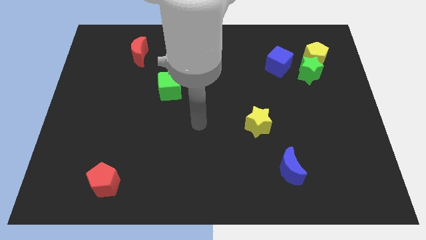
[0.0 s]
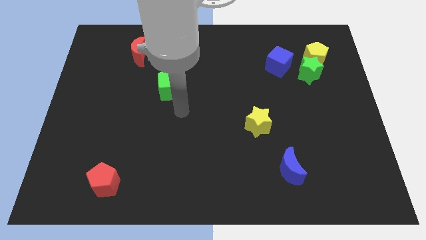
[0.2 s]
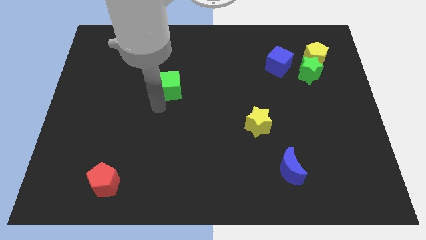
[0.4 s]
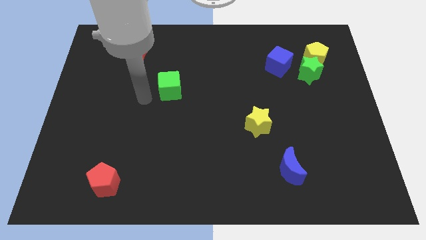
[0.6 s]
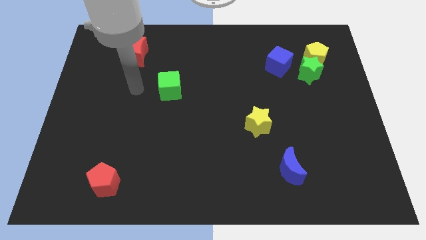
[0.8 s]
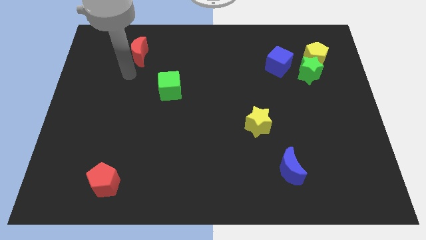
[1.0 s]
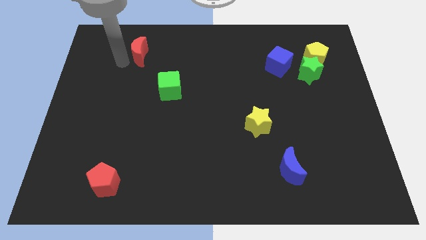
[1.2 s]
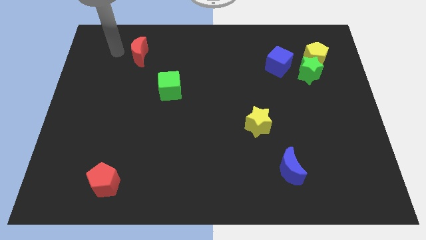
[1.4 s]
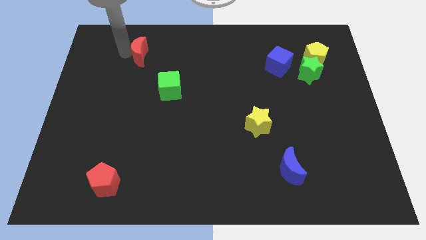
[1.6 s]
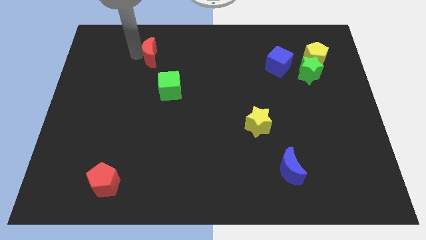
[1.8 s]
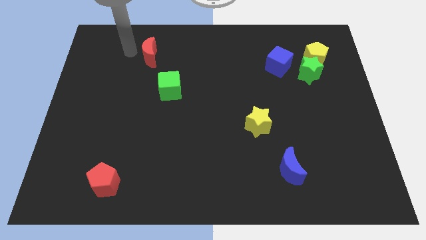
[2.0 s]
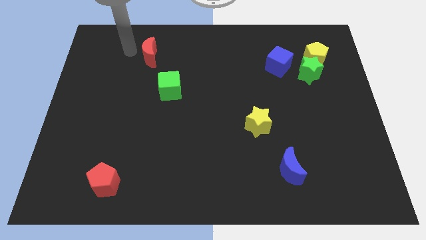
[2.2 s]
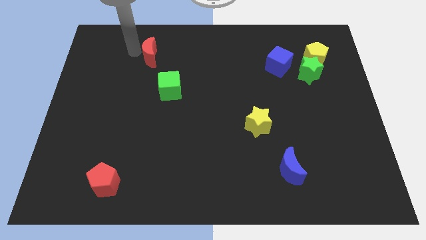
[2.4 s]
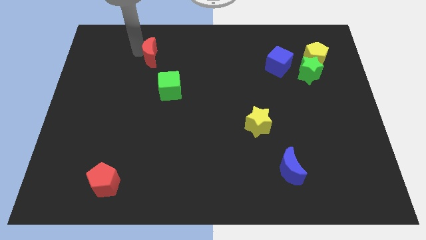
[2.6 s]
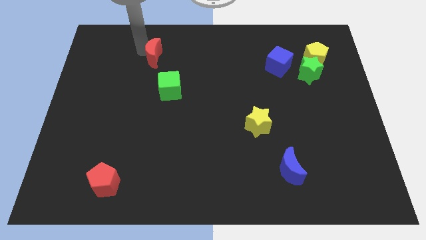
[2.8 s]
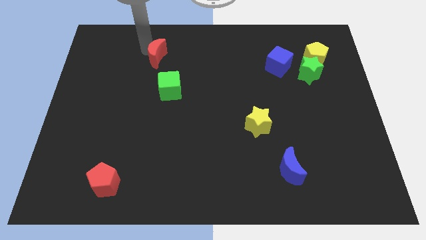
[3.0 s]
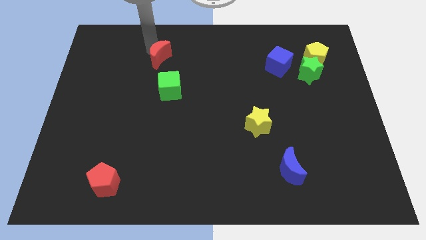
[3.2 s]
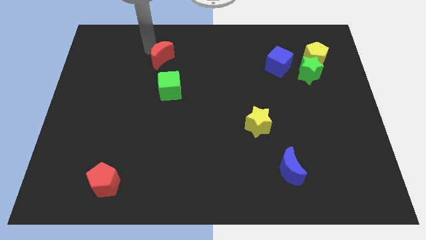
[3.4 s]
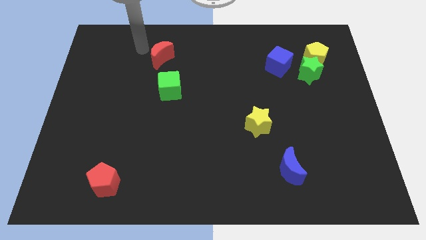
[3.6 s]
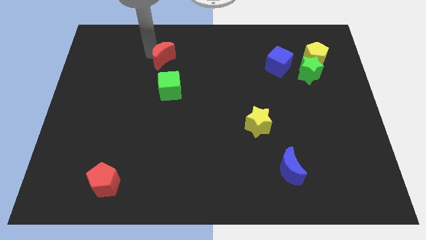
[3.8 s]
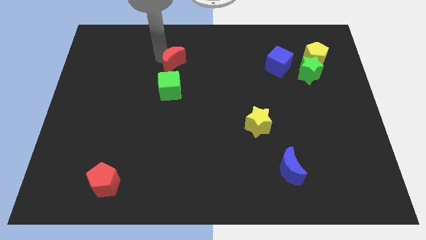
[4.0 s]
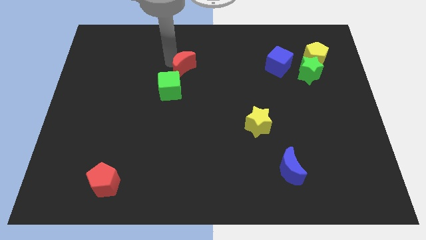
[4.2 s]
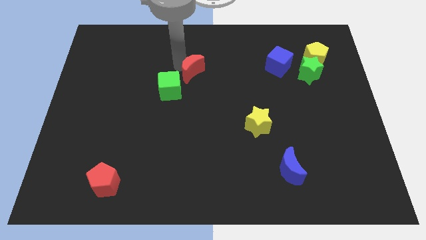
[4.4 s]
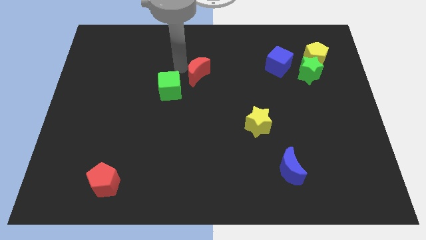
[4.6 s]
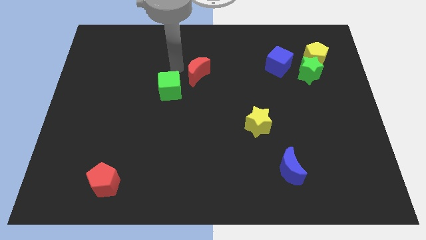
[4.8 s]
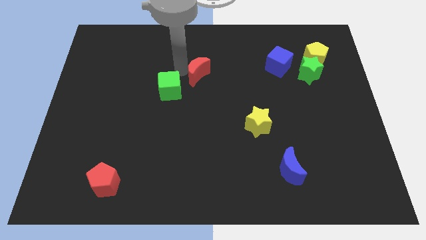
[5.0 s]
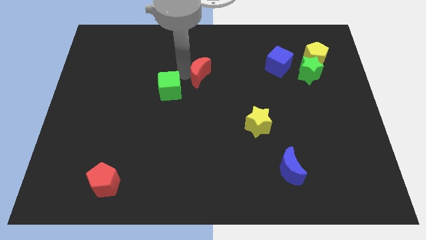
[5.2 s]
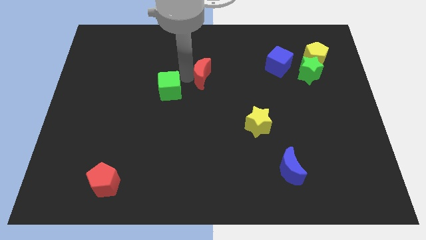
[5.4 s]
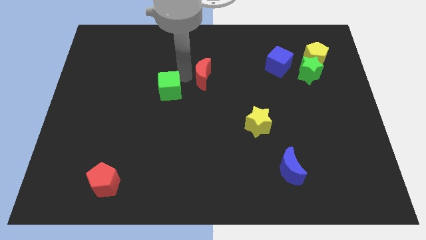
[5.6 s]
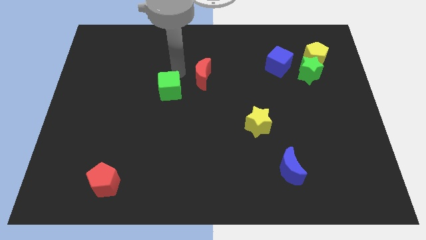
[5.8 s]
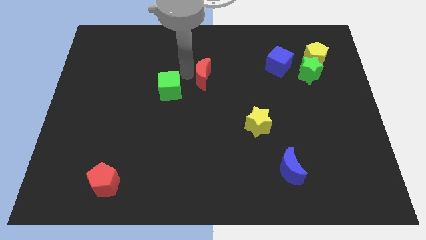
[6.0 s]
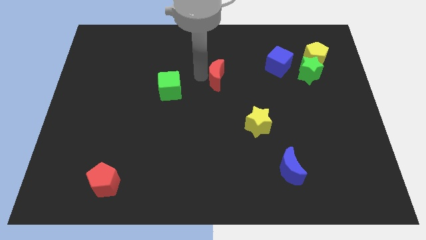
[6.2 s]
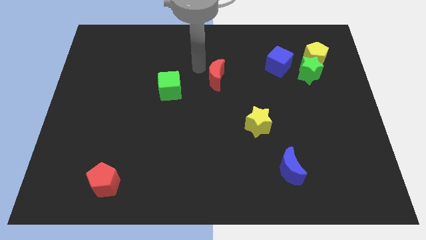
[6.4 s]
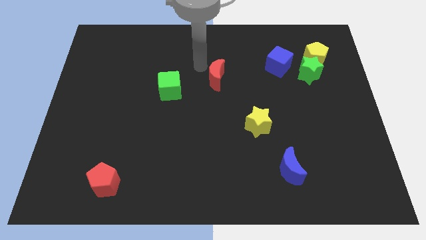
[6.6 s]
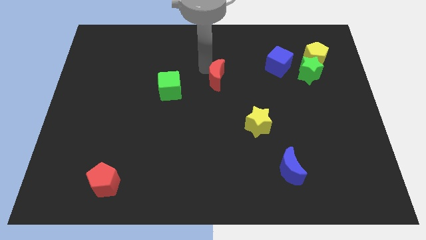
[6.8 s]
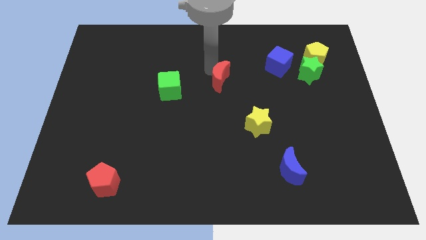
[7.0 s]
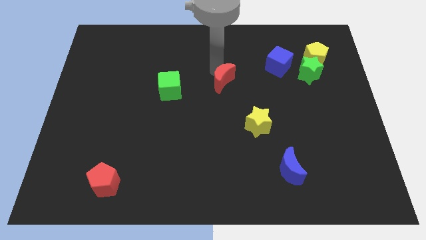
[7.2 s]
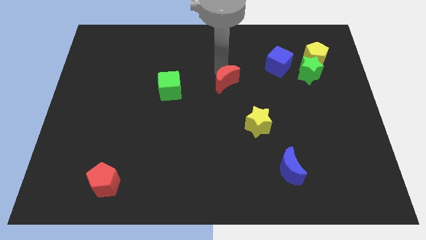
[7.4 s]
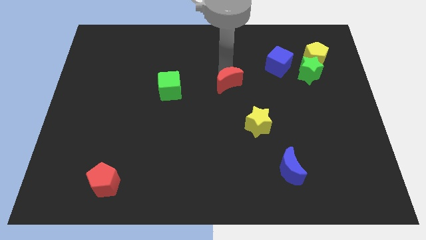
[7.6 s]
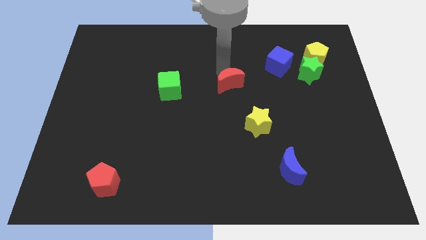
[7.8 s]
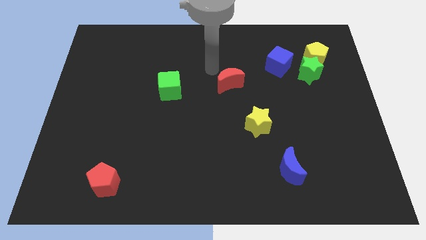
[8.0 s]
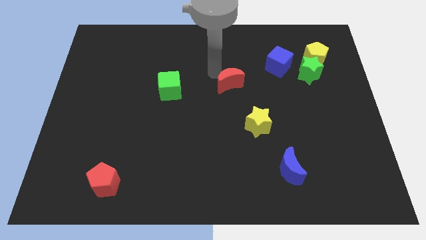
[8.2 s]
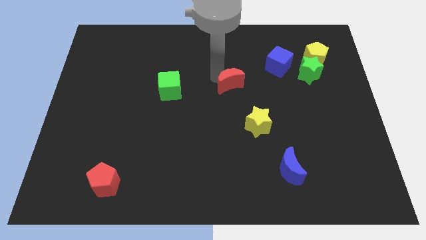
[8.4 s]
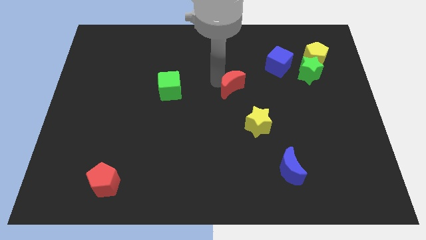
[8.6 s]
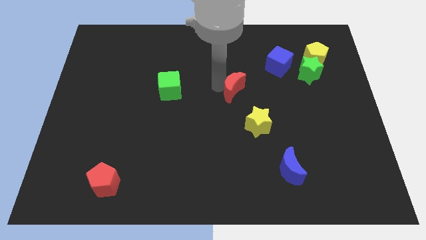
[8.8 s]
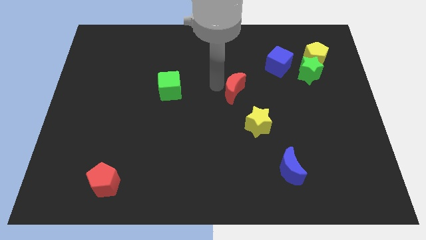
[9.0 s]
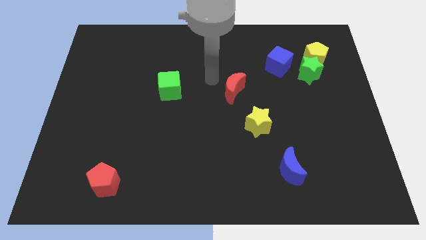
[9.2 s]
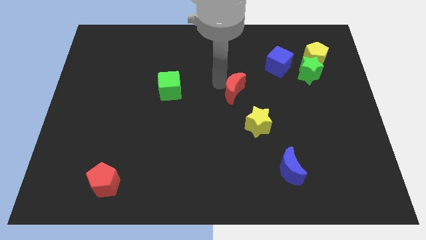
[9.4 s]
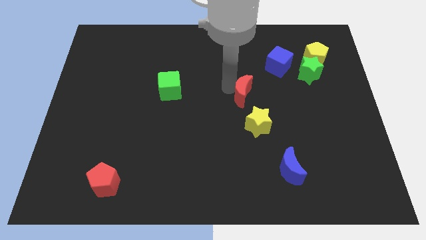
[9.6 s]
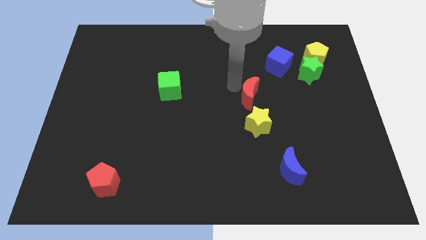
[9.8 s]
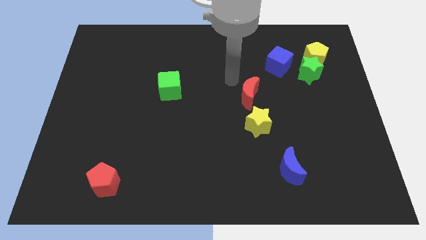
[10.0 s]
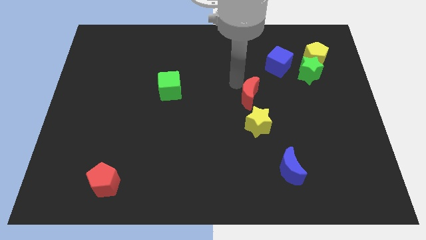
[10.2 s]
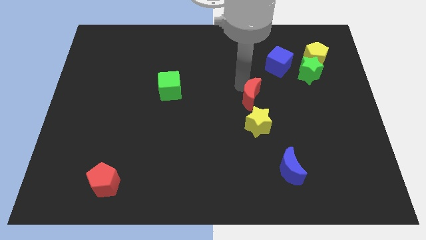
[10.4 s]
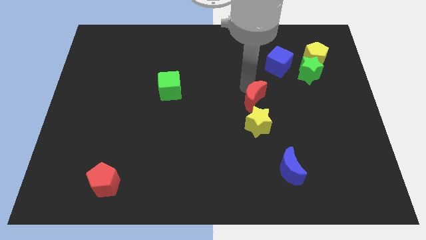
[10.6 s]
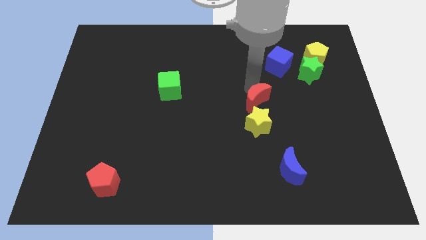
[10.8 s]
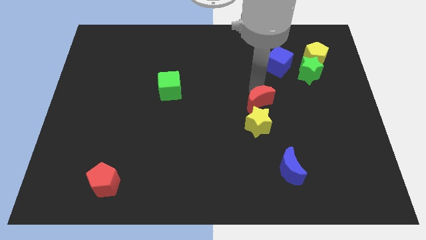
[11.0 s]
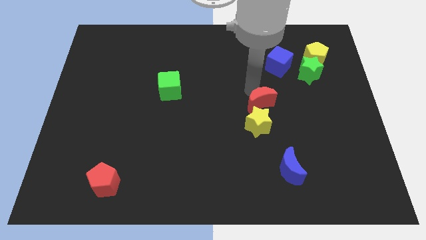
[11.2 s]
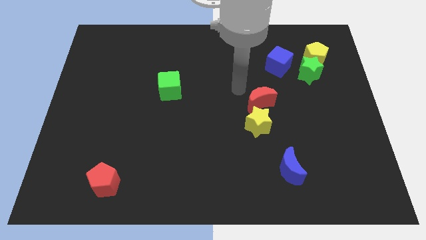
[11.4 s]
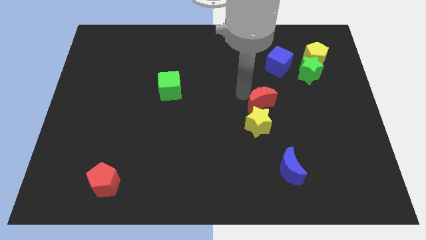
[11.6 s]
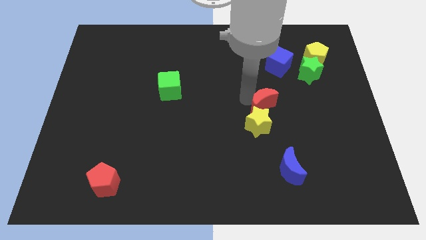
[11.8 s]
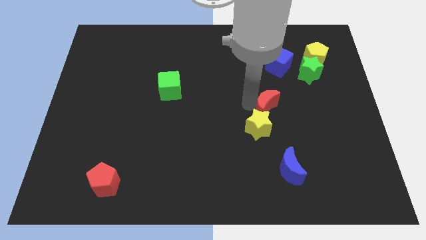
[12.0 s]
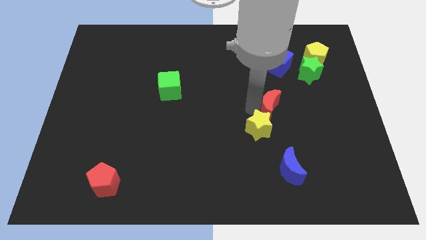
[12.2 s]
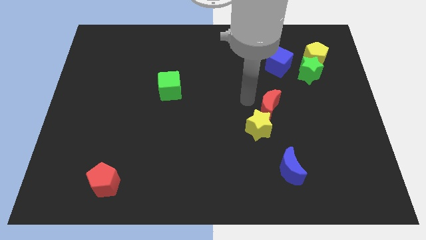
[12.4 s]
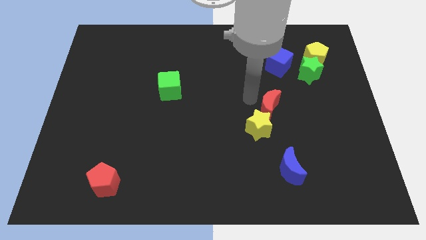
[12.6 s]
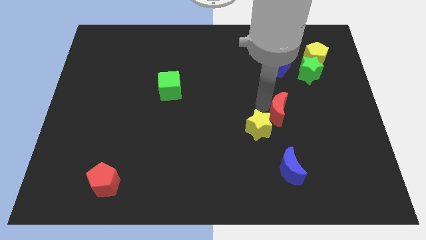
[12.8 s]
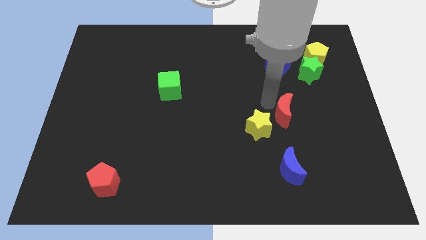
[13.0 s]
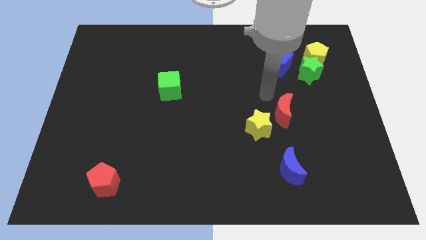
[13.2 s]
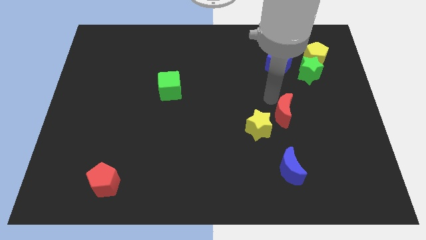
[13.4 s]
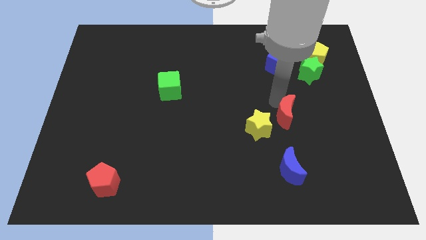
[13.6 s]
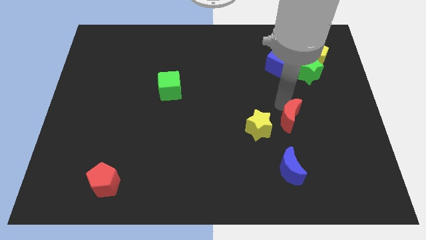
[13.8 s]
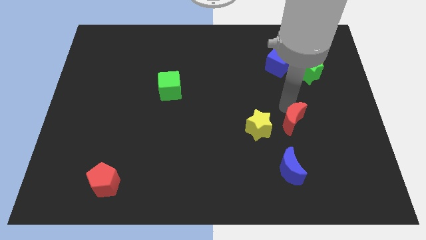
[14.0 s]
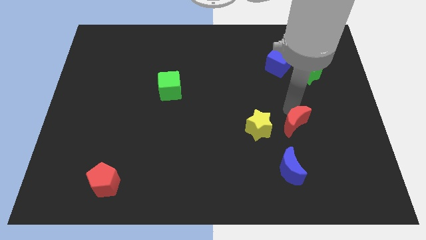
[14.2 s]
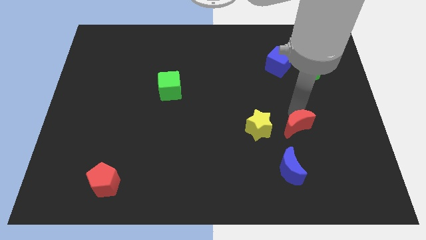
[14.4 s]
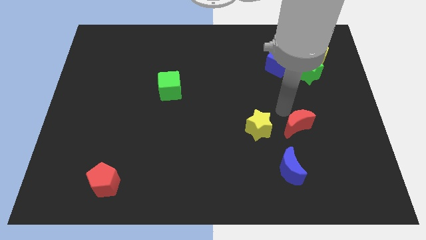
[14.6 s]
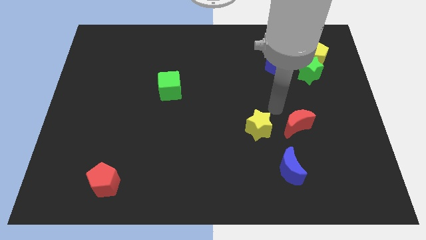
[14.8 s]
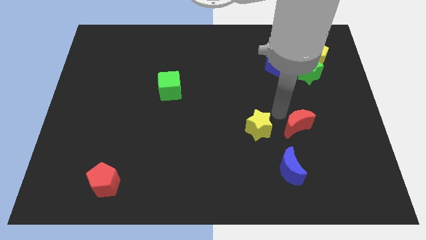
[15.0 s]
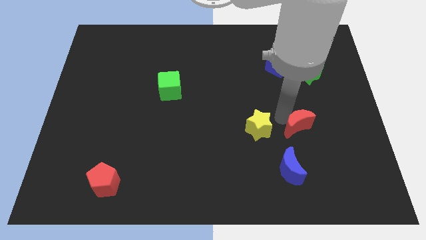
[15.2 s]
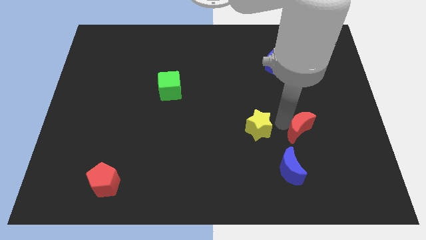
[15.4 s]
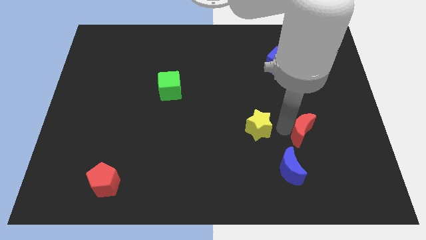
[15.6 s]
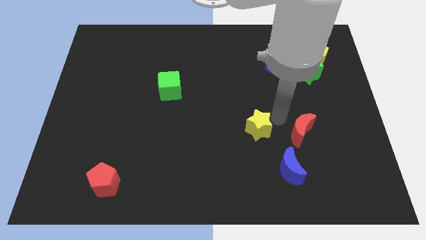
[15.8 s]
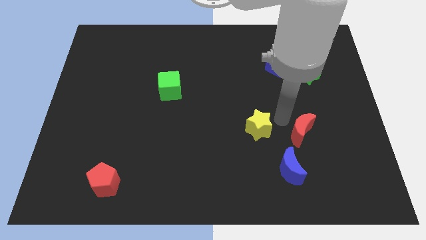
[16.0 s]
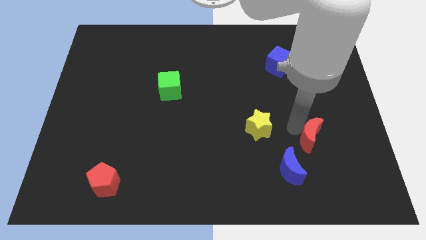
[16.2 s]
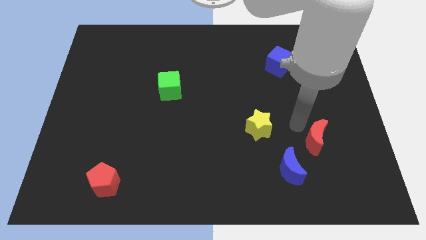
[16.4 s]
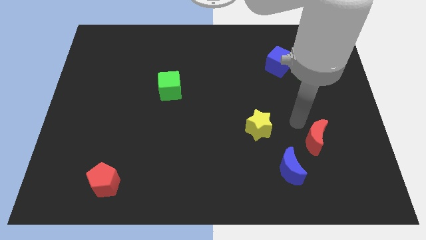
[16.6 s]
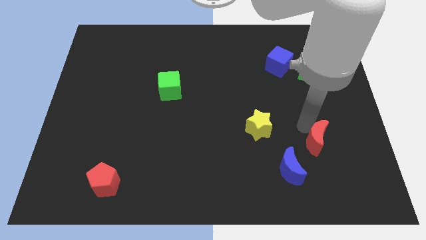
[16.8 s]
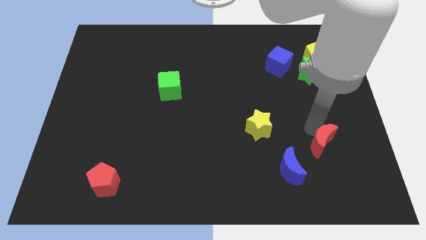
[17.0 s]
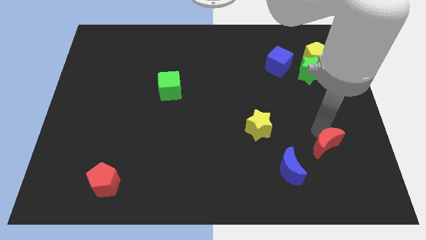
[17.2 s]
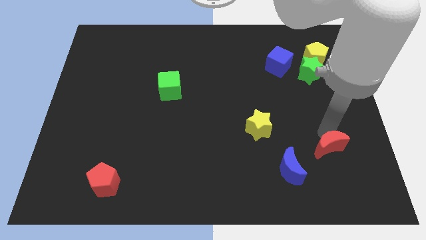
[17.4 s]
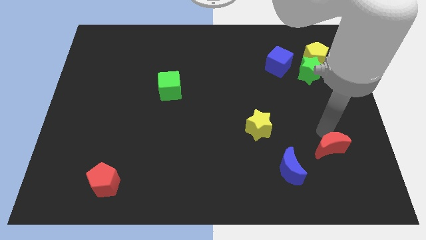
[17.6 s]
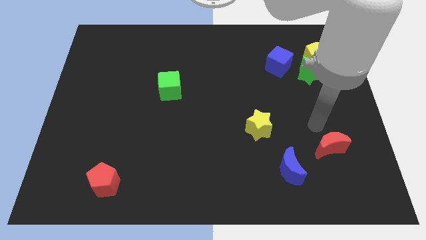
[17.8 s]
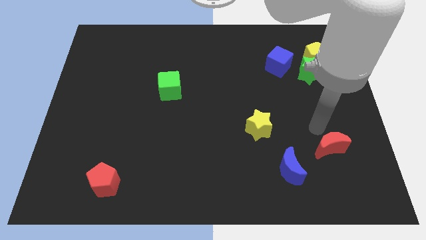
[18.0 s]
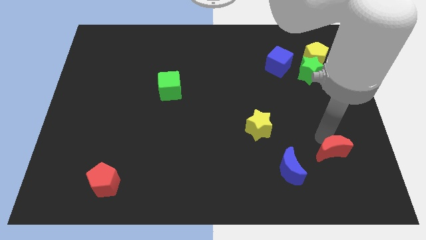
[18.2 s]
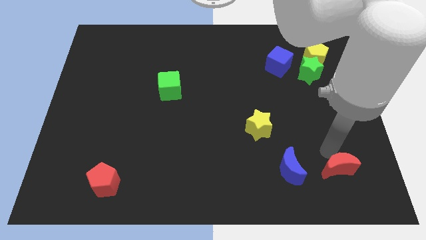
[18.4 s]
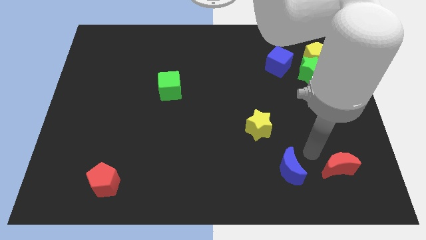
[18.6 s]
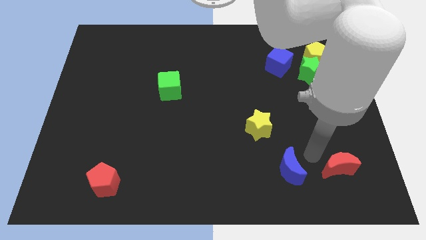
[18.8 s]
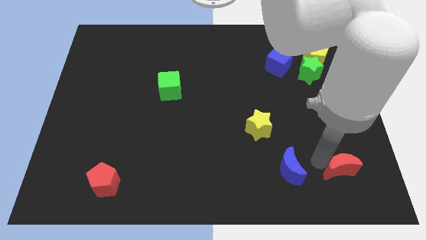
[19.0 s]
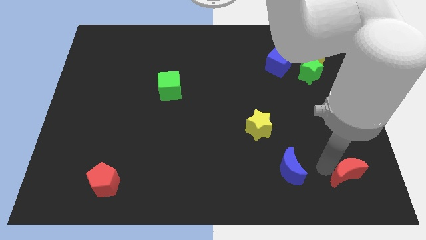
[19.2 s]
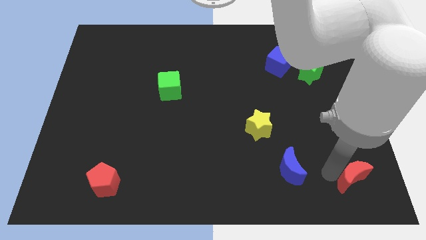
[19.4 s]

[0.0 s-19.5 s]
push the red moon to the bottom right corner
